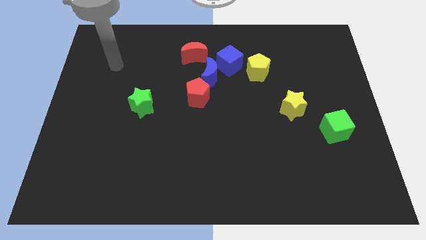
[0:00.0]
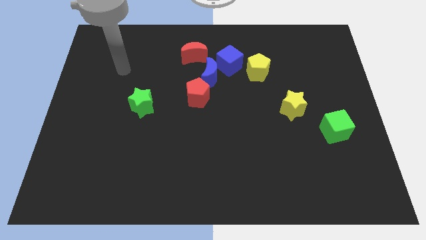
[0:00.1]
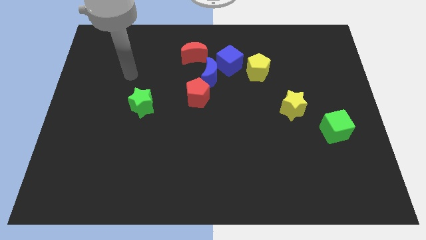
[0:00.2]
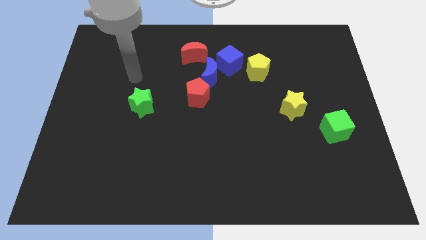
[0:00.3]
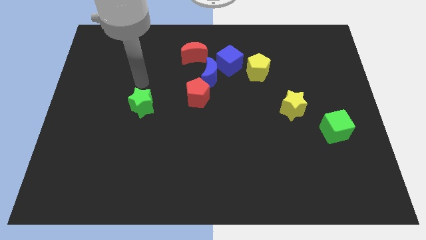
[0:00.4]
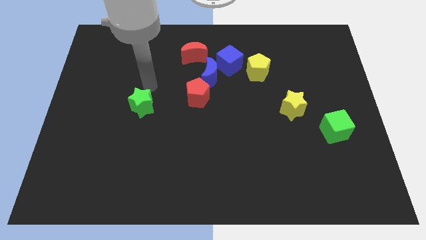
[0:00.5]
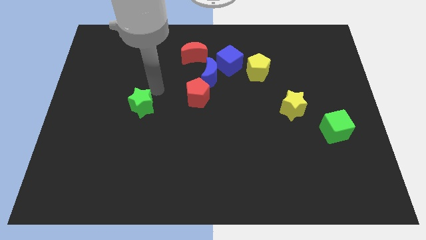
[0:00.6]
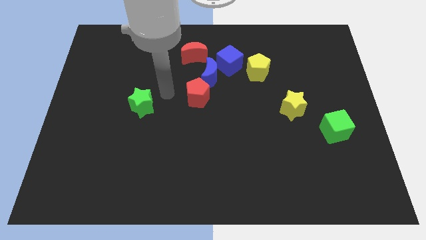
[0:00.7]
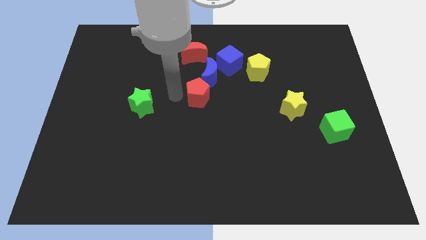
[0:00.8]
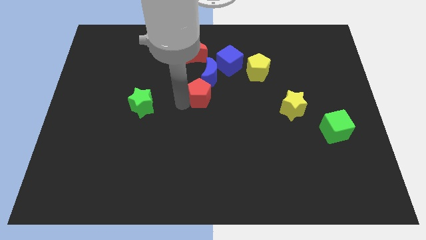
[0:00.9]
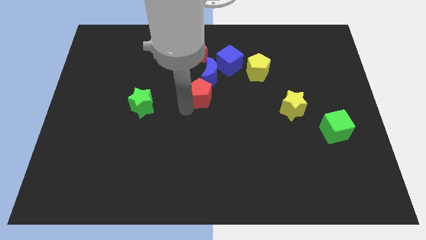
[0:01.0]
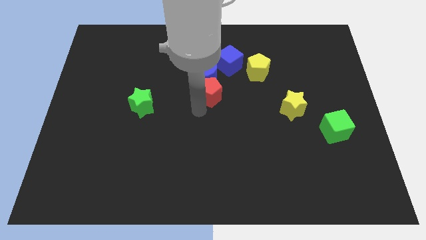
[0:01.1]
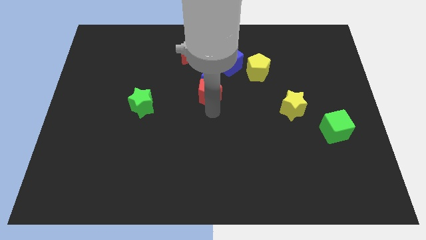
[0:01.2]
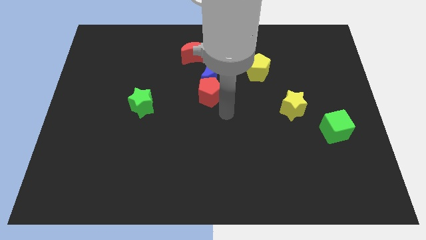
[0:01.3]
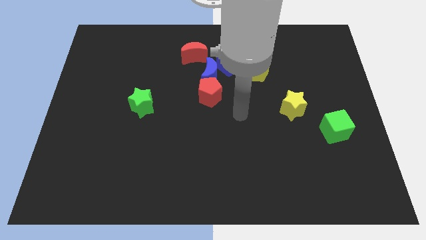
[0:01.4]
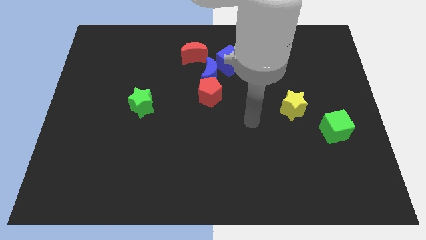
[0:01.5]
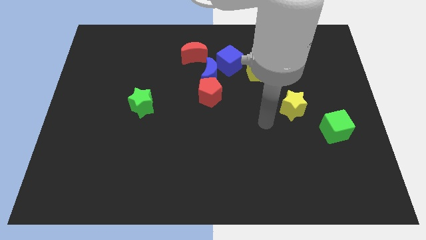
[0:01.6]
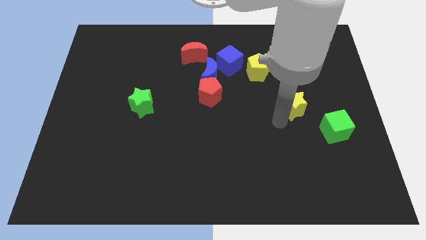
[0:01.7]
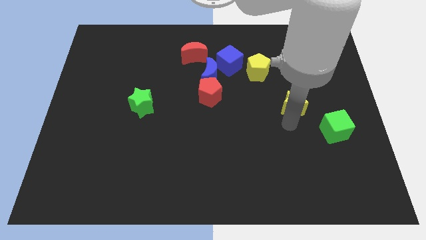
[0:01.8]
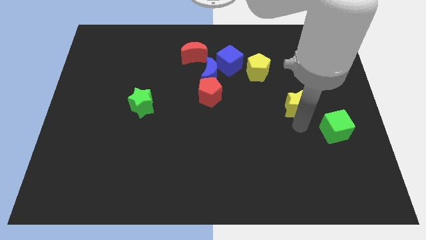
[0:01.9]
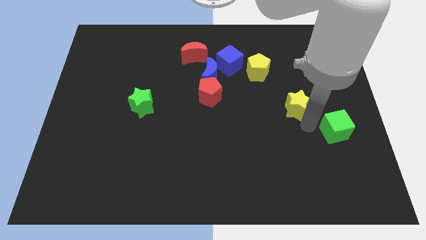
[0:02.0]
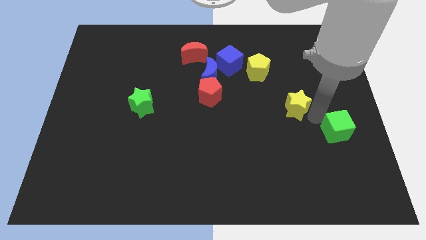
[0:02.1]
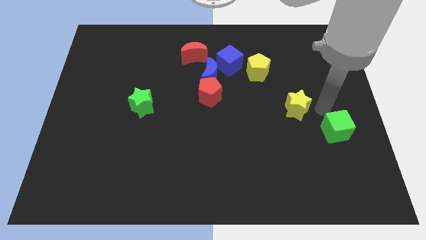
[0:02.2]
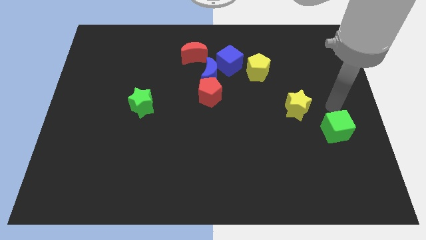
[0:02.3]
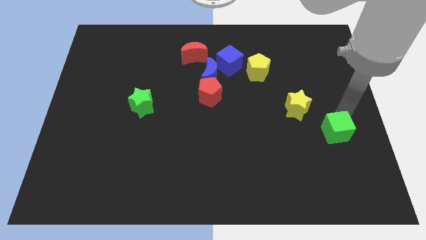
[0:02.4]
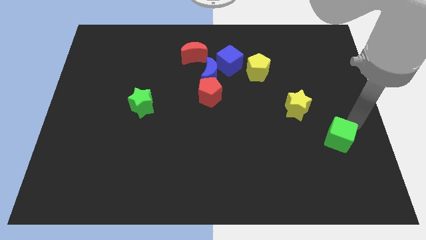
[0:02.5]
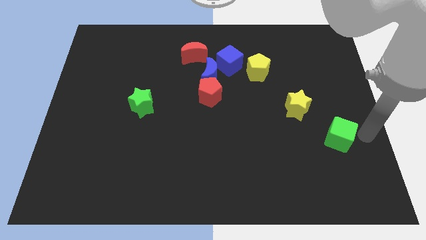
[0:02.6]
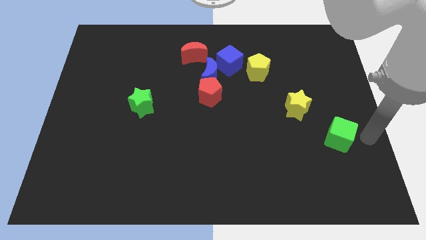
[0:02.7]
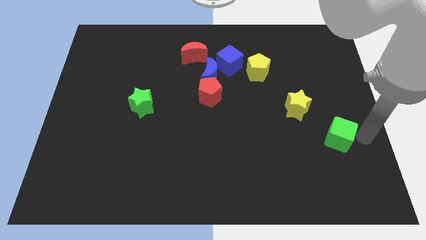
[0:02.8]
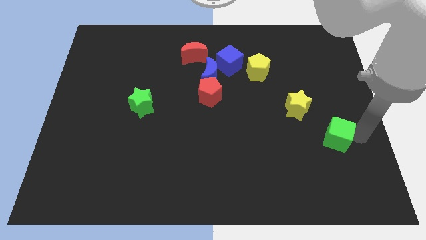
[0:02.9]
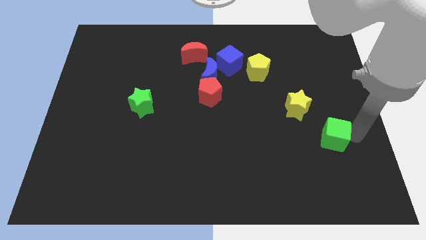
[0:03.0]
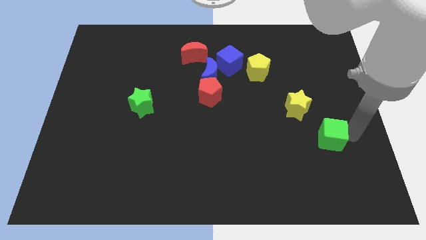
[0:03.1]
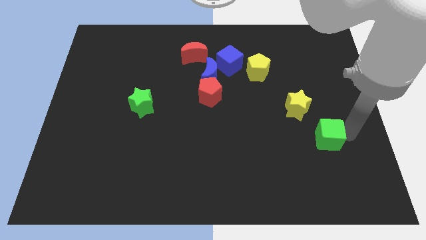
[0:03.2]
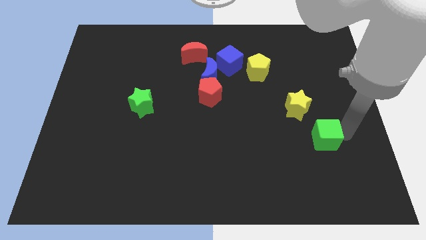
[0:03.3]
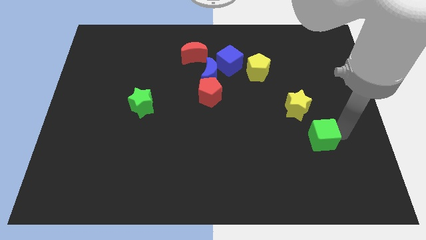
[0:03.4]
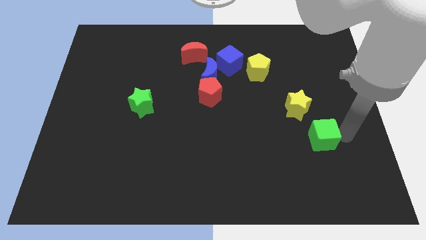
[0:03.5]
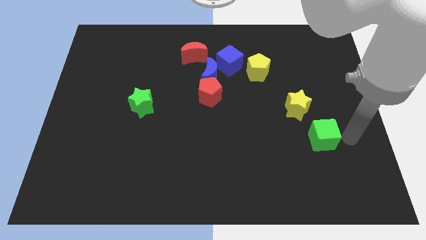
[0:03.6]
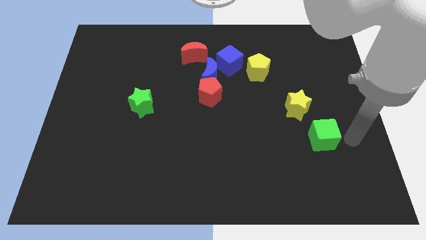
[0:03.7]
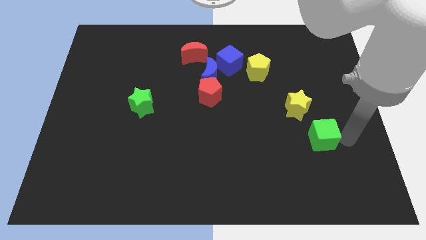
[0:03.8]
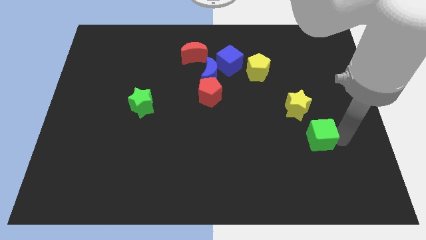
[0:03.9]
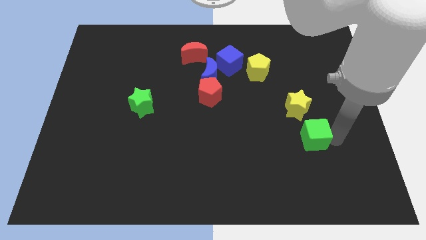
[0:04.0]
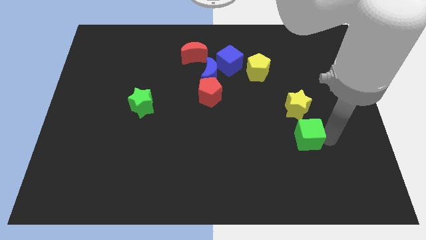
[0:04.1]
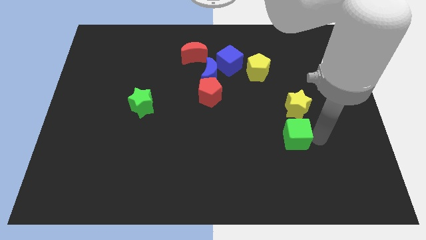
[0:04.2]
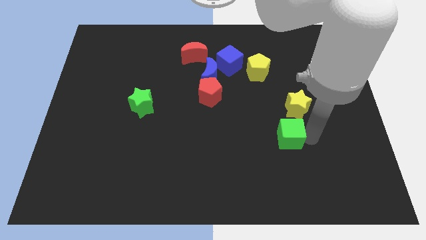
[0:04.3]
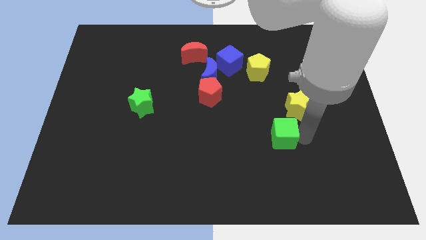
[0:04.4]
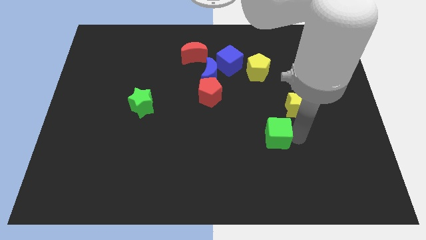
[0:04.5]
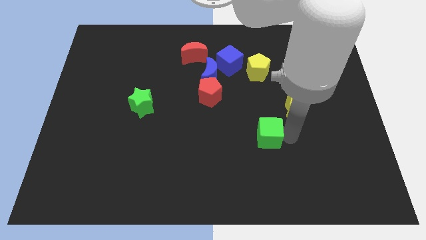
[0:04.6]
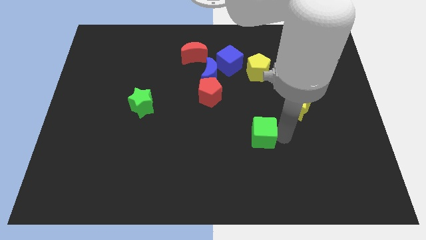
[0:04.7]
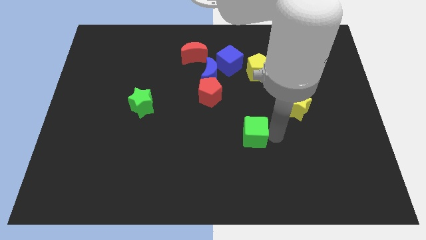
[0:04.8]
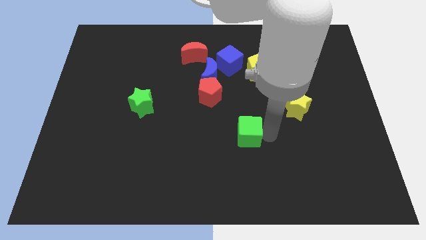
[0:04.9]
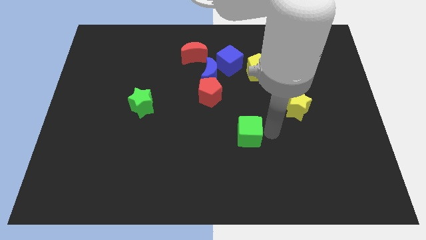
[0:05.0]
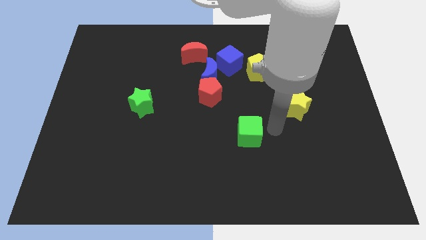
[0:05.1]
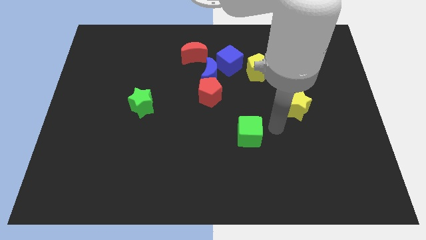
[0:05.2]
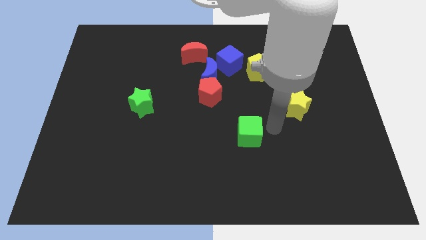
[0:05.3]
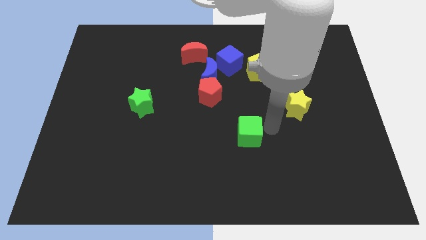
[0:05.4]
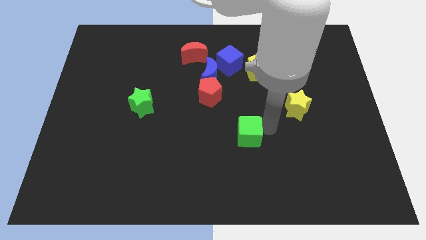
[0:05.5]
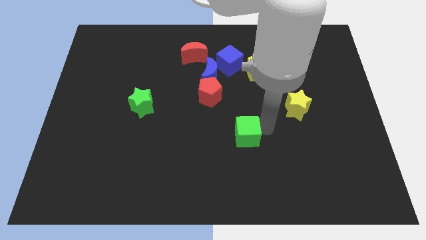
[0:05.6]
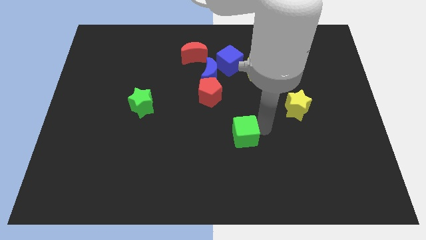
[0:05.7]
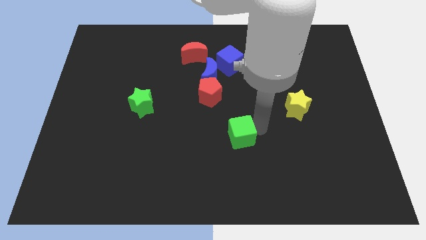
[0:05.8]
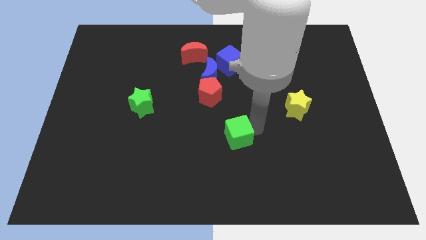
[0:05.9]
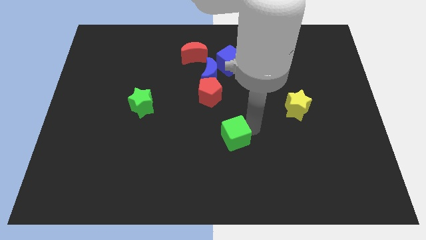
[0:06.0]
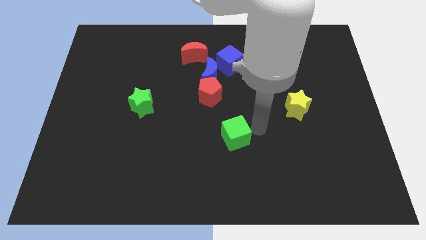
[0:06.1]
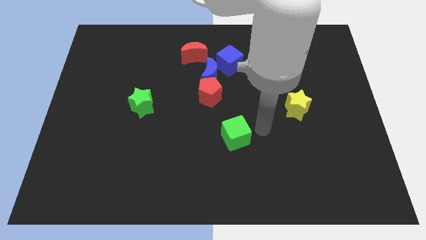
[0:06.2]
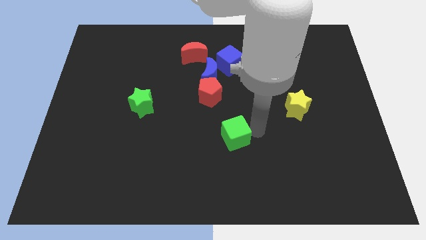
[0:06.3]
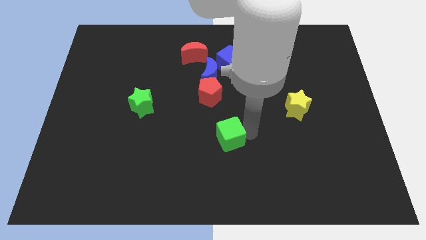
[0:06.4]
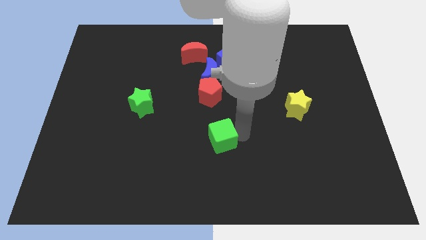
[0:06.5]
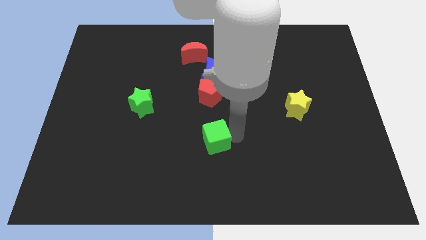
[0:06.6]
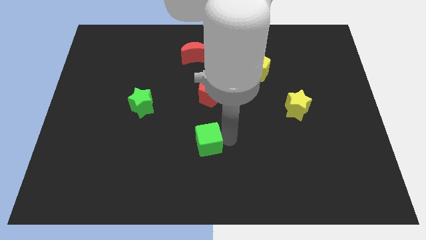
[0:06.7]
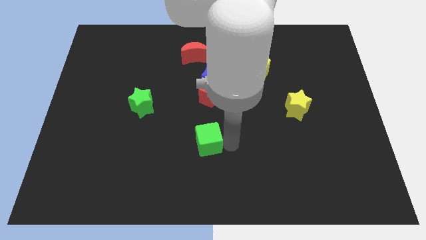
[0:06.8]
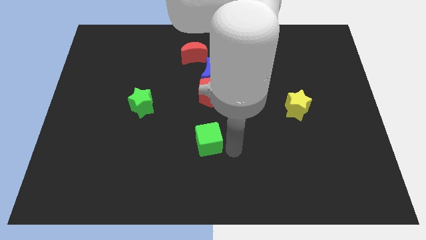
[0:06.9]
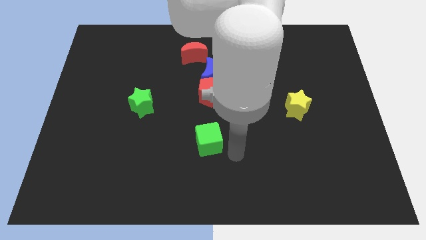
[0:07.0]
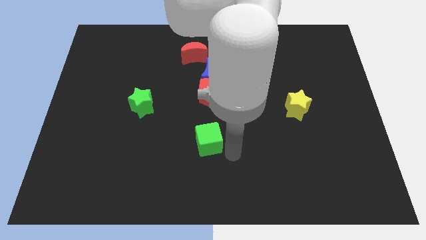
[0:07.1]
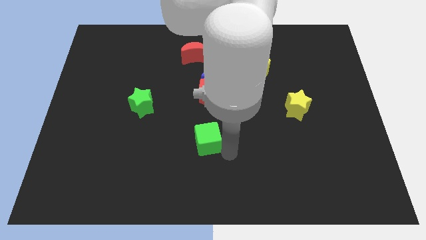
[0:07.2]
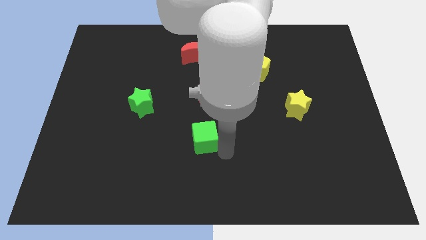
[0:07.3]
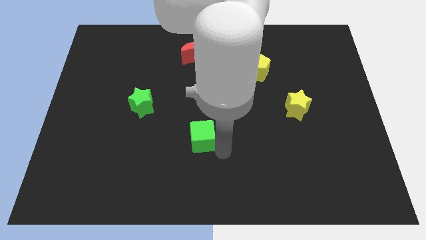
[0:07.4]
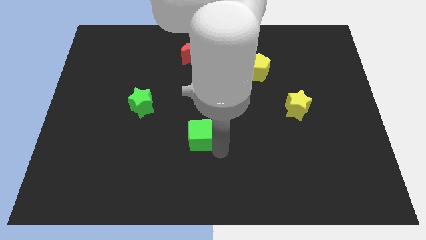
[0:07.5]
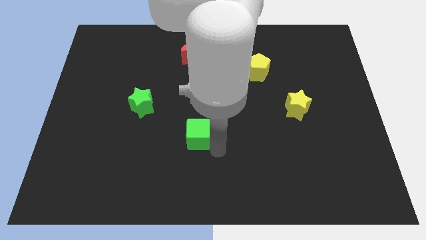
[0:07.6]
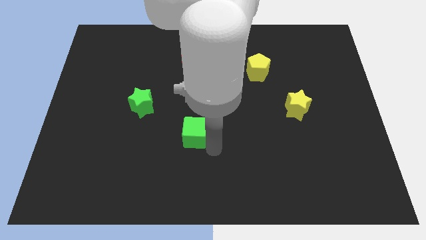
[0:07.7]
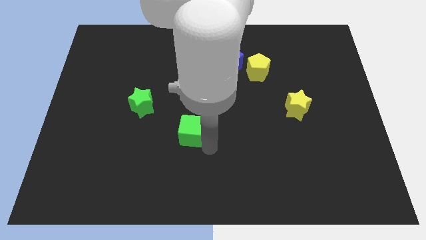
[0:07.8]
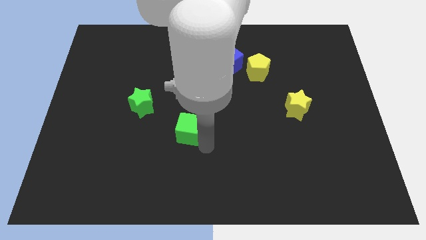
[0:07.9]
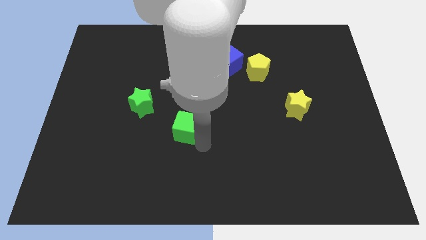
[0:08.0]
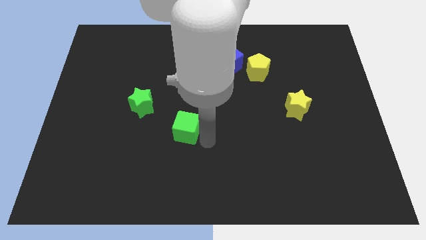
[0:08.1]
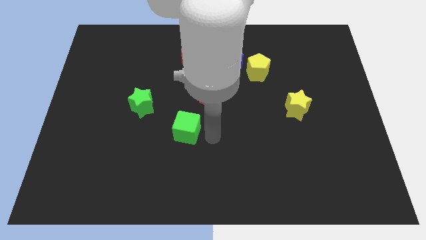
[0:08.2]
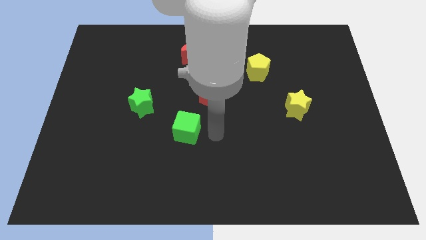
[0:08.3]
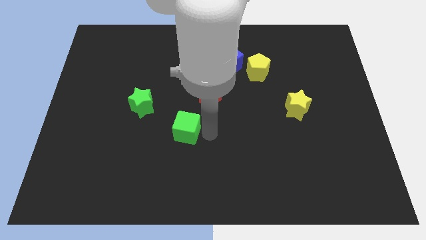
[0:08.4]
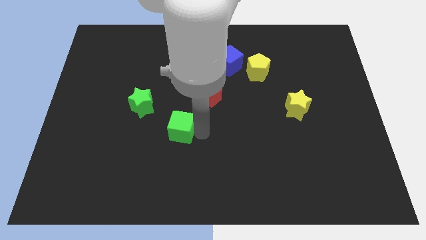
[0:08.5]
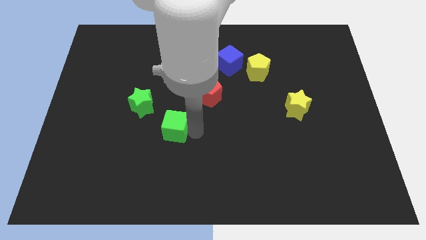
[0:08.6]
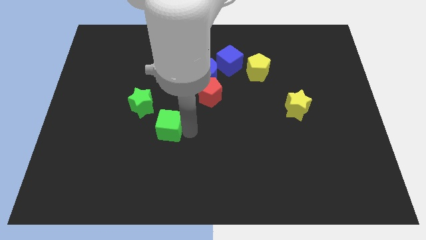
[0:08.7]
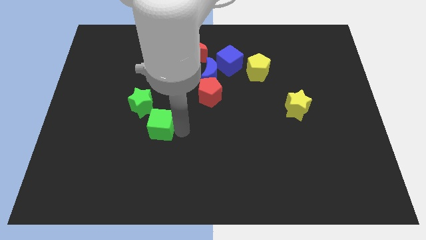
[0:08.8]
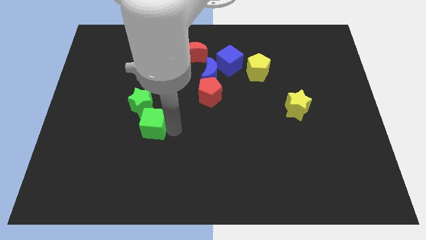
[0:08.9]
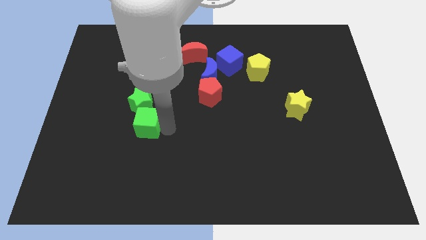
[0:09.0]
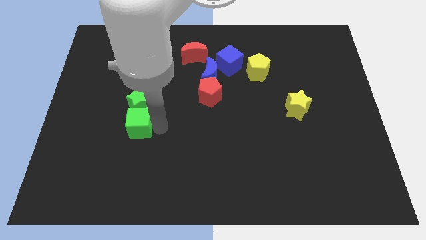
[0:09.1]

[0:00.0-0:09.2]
slide the green cube to the bottom left of the green star
